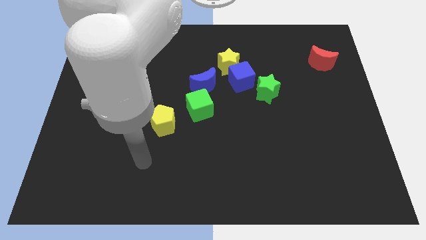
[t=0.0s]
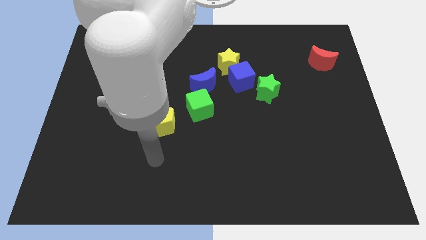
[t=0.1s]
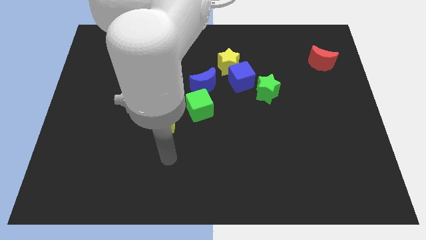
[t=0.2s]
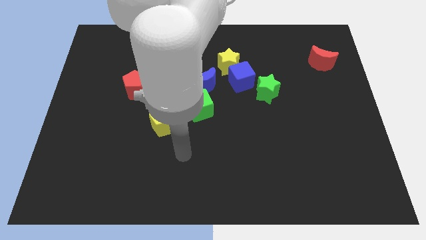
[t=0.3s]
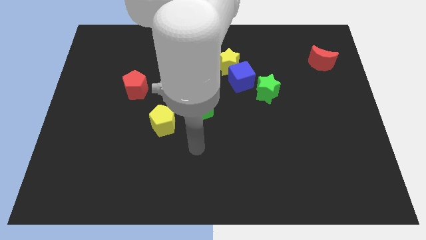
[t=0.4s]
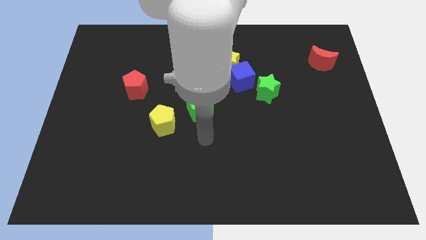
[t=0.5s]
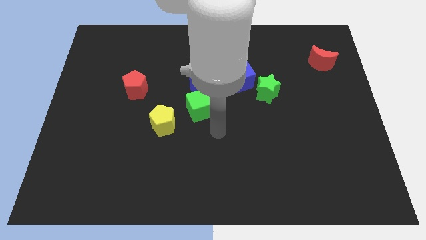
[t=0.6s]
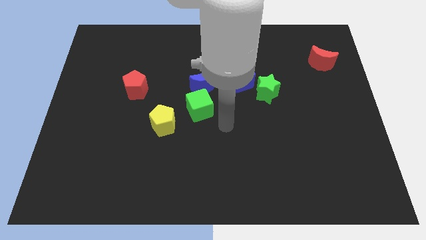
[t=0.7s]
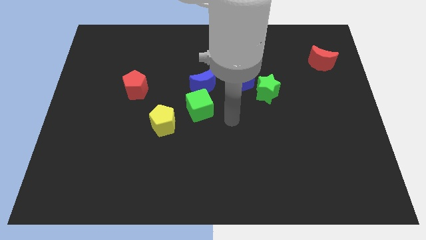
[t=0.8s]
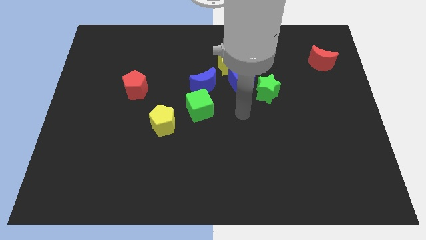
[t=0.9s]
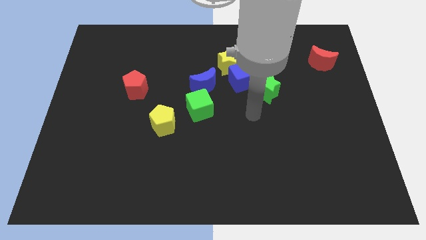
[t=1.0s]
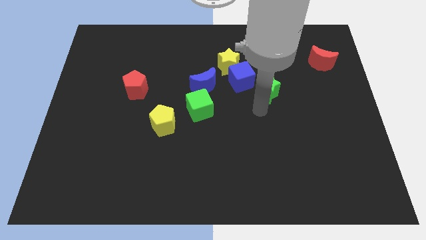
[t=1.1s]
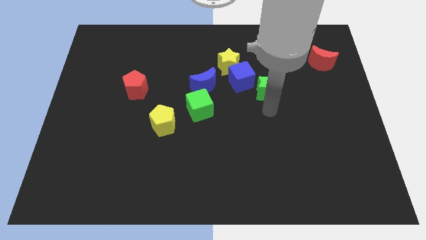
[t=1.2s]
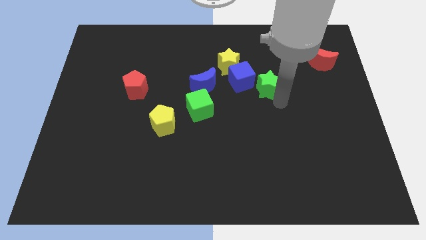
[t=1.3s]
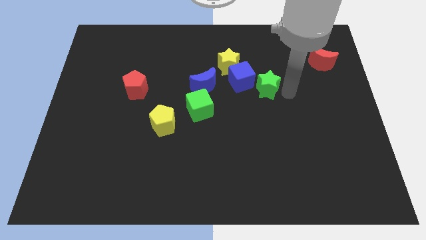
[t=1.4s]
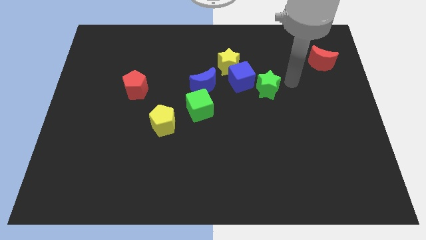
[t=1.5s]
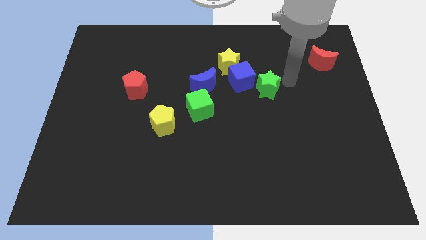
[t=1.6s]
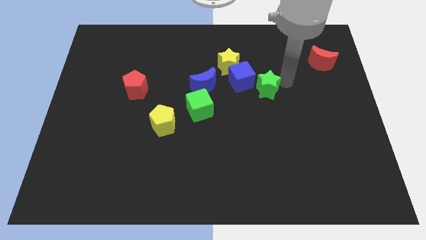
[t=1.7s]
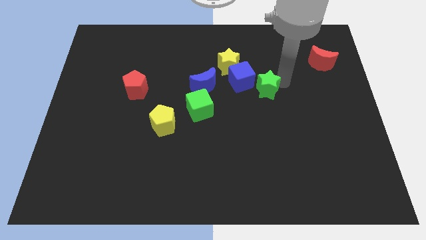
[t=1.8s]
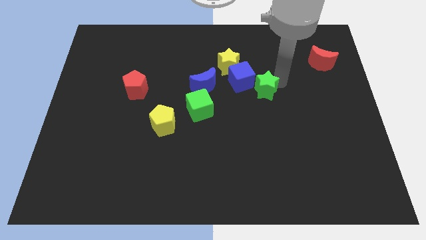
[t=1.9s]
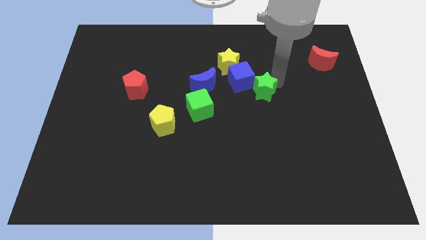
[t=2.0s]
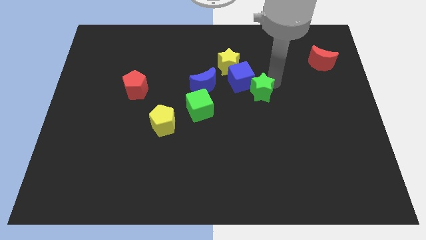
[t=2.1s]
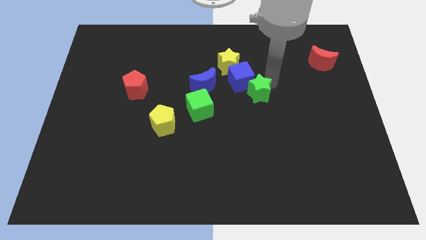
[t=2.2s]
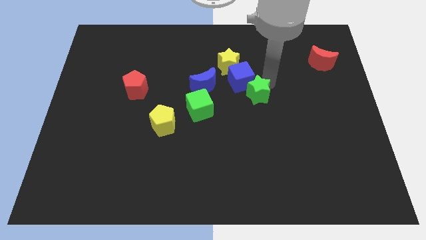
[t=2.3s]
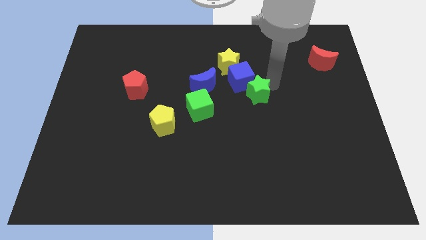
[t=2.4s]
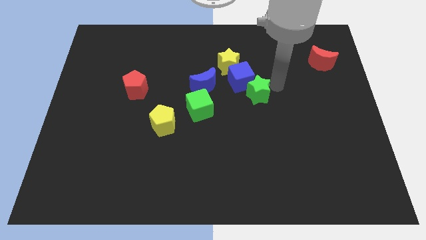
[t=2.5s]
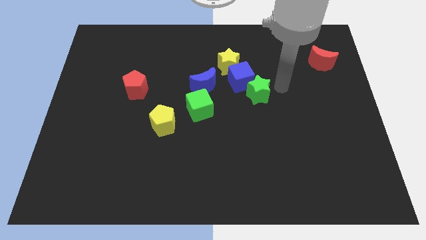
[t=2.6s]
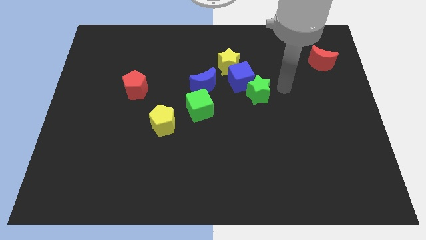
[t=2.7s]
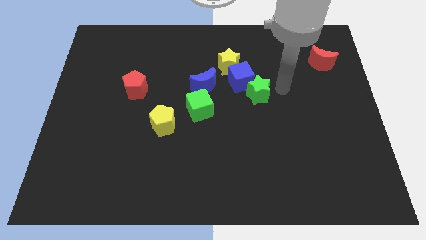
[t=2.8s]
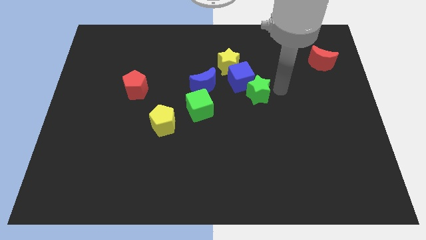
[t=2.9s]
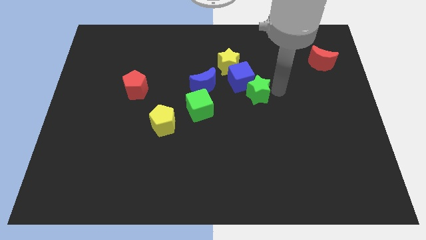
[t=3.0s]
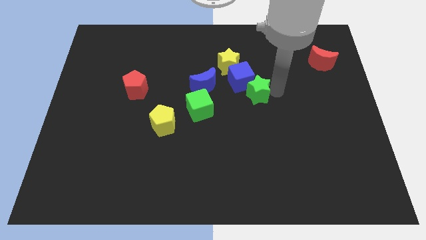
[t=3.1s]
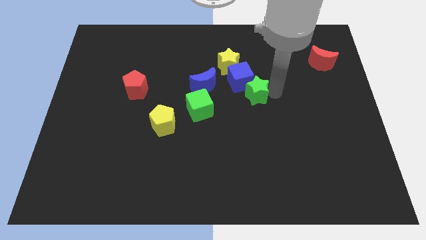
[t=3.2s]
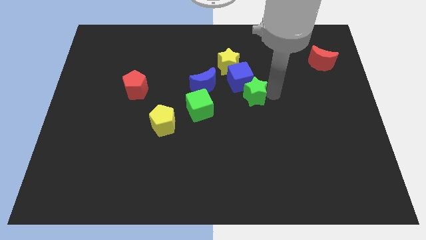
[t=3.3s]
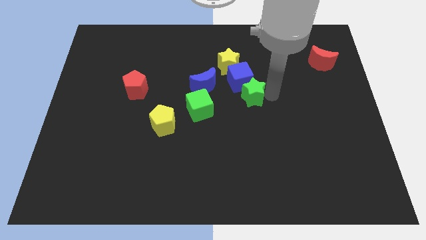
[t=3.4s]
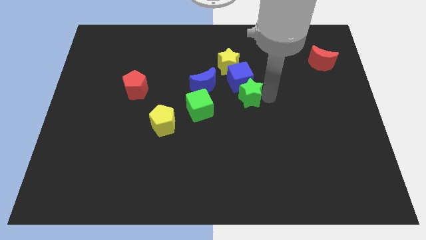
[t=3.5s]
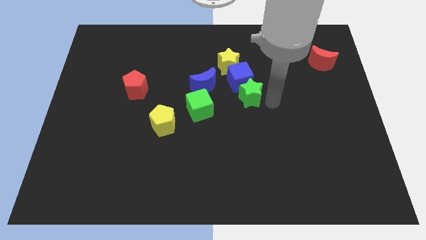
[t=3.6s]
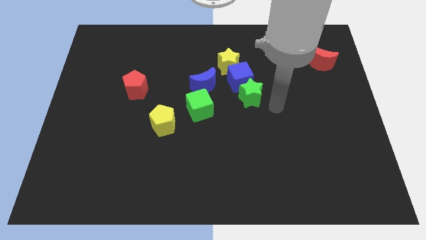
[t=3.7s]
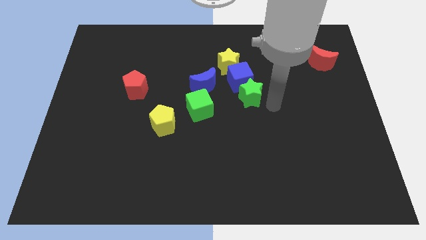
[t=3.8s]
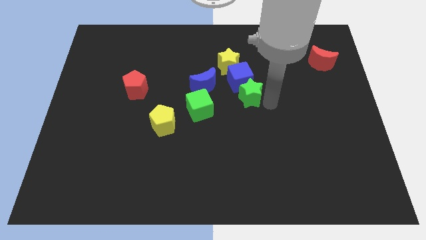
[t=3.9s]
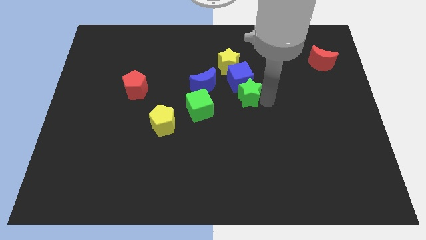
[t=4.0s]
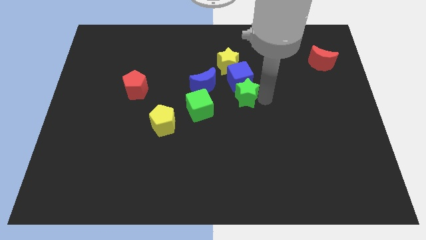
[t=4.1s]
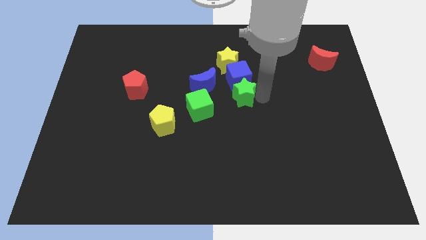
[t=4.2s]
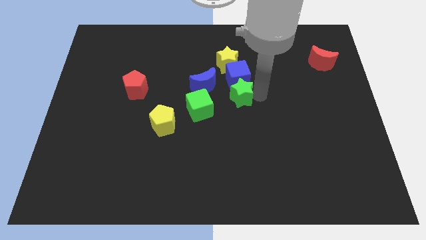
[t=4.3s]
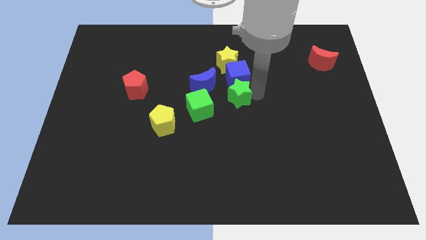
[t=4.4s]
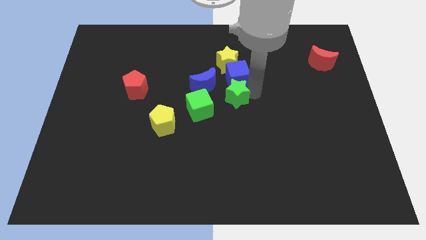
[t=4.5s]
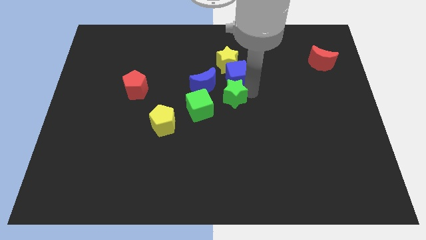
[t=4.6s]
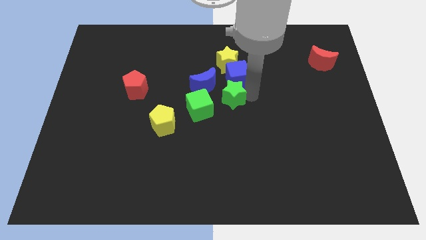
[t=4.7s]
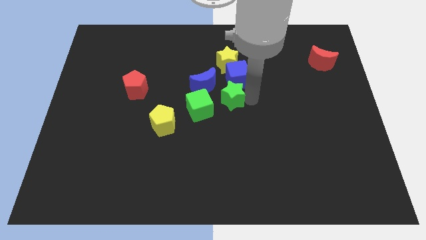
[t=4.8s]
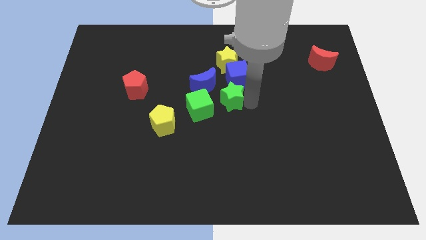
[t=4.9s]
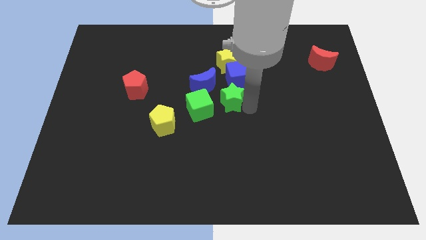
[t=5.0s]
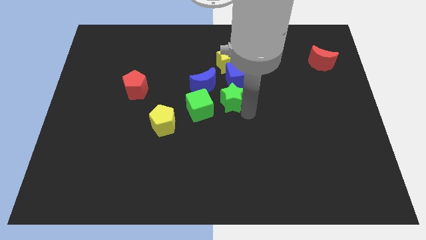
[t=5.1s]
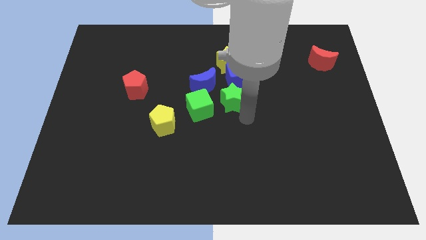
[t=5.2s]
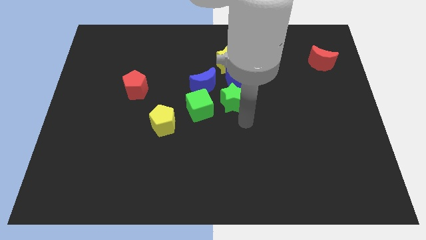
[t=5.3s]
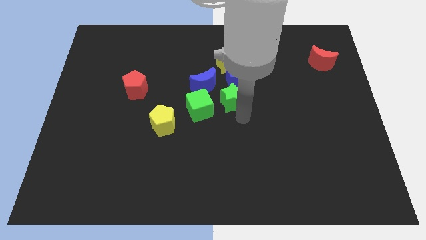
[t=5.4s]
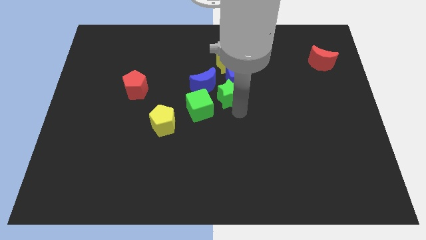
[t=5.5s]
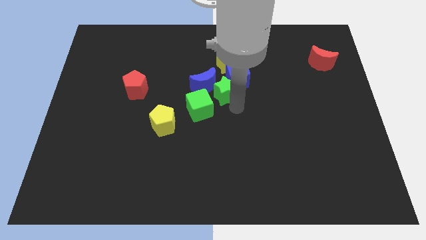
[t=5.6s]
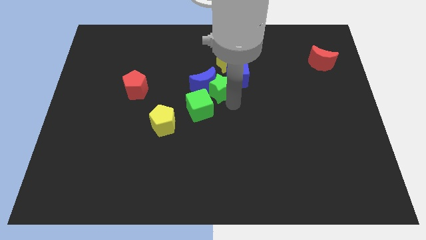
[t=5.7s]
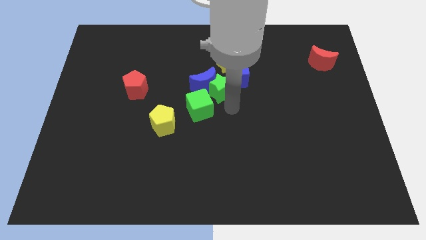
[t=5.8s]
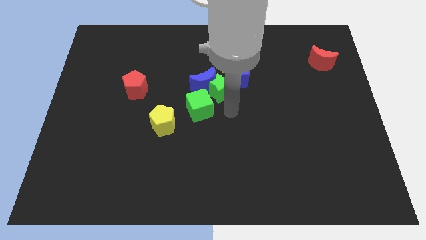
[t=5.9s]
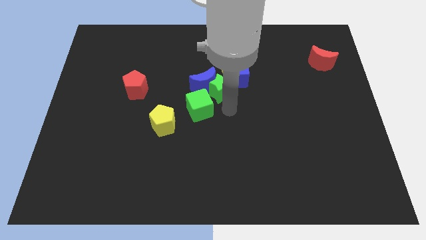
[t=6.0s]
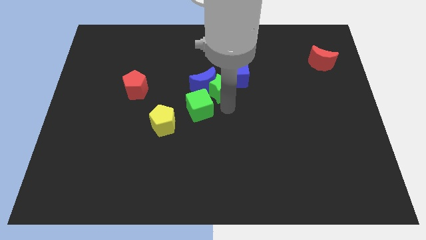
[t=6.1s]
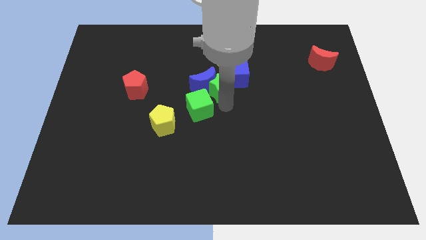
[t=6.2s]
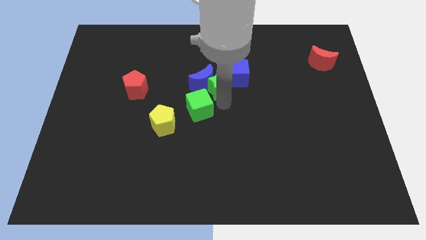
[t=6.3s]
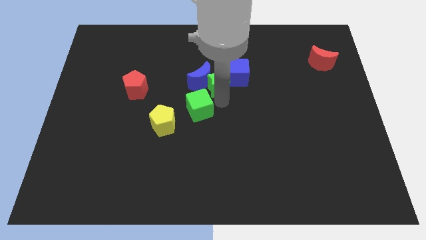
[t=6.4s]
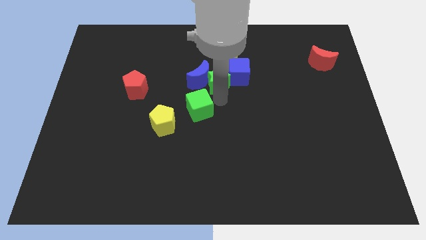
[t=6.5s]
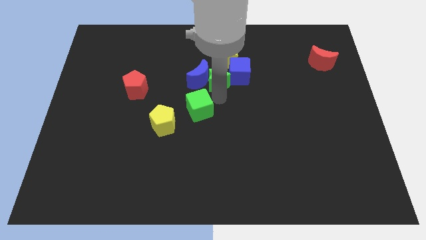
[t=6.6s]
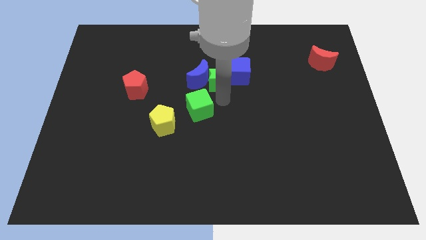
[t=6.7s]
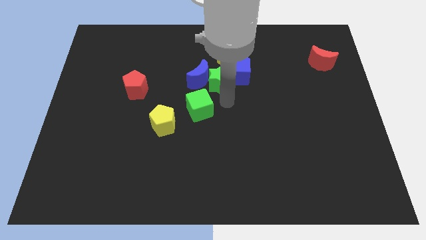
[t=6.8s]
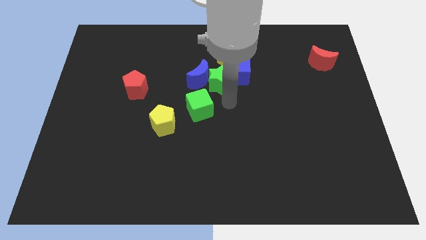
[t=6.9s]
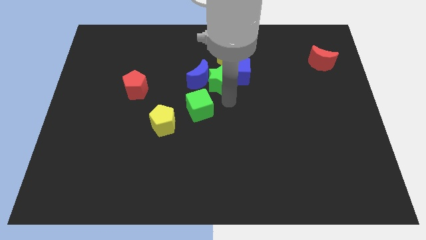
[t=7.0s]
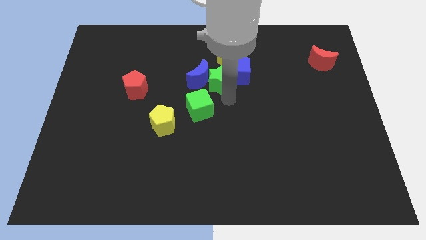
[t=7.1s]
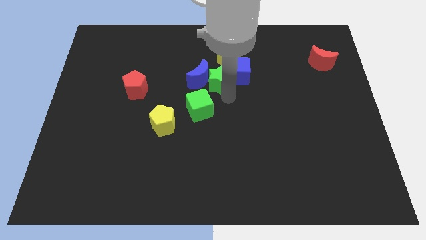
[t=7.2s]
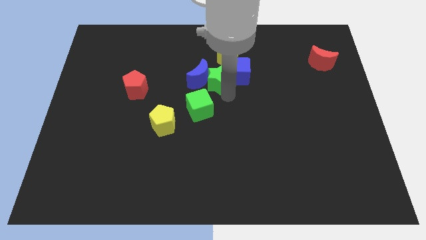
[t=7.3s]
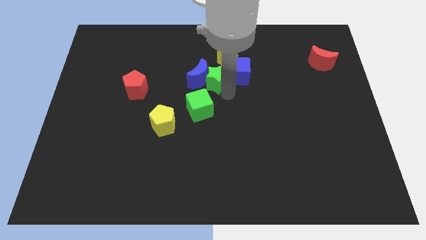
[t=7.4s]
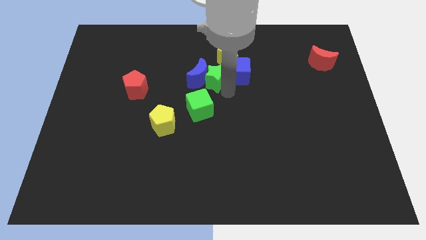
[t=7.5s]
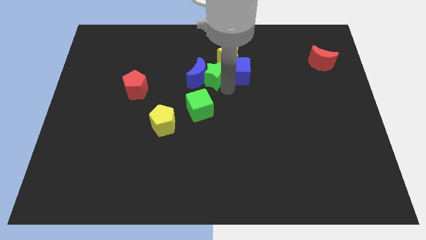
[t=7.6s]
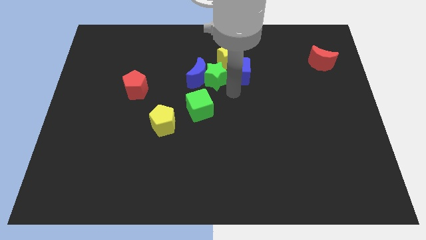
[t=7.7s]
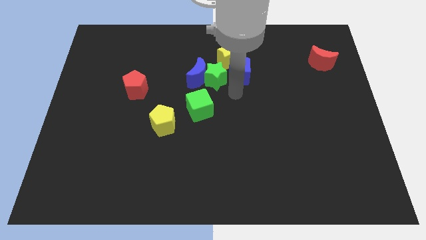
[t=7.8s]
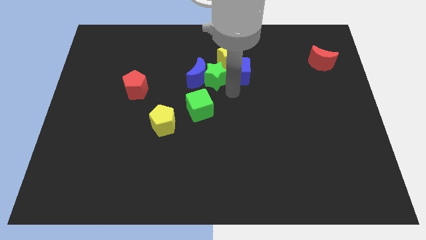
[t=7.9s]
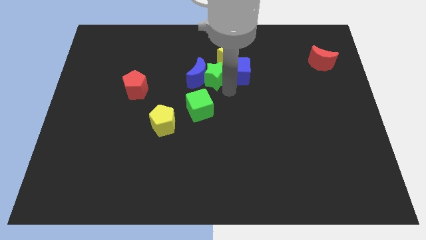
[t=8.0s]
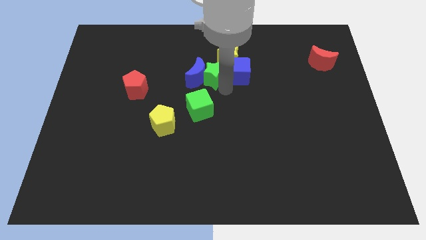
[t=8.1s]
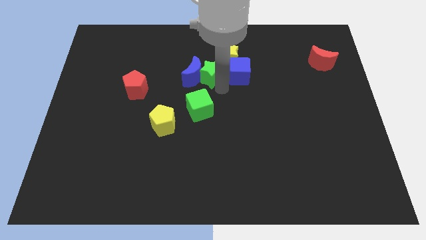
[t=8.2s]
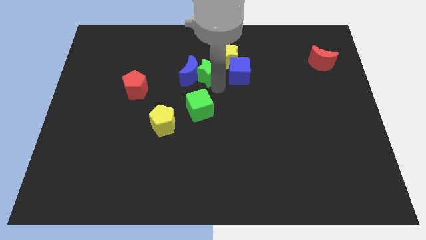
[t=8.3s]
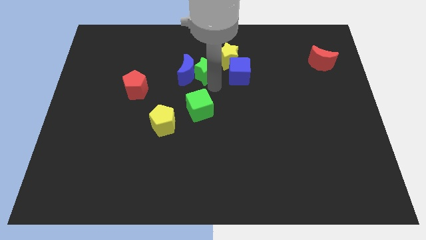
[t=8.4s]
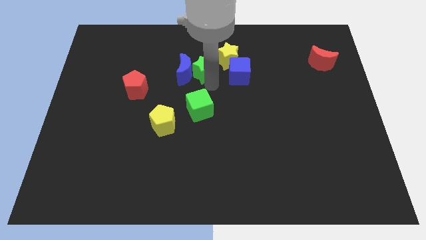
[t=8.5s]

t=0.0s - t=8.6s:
push the green star left of the yellow star
